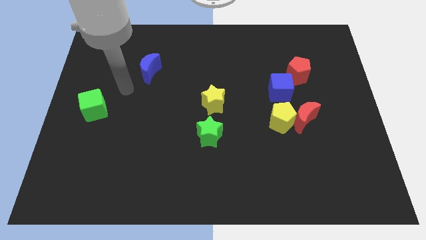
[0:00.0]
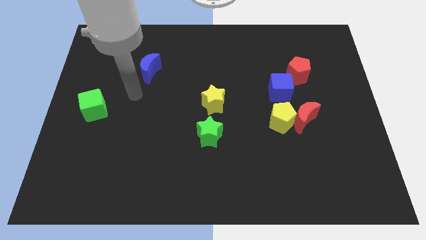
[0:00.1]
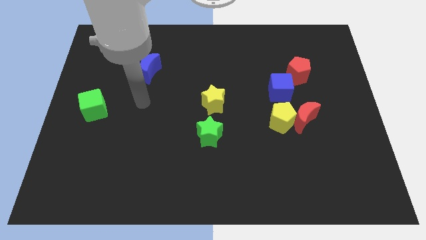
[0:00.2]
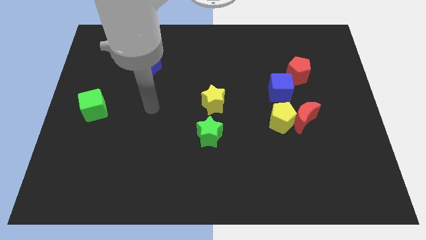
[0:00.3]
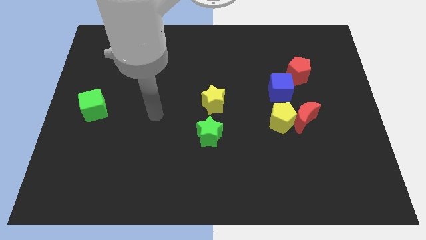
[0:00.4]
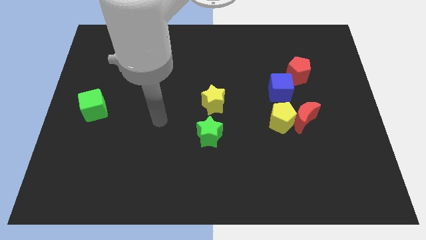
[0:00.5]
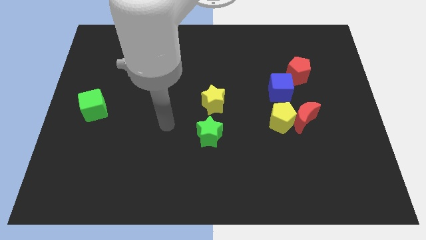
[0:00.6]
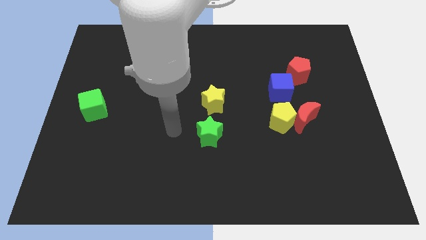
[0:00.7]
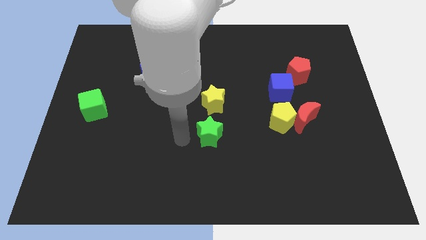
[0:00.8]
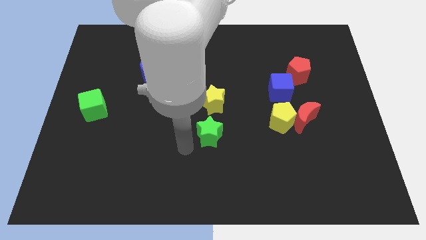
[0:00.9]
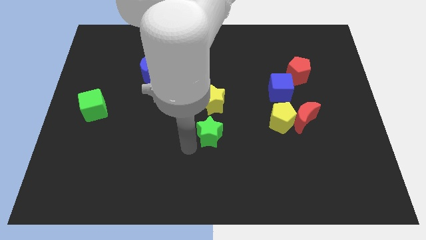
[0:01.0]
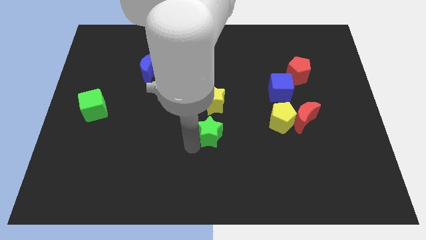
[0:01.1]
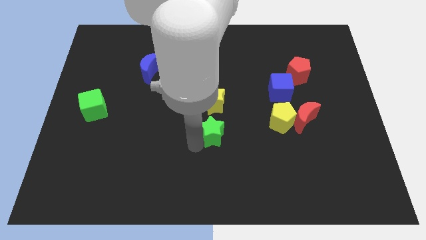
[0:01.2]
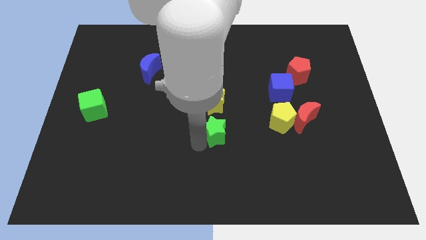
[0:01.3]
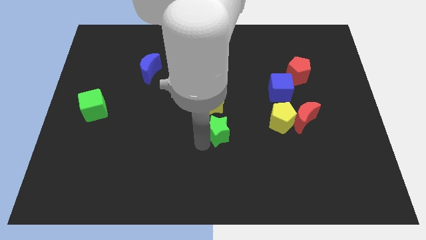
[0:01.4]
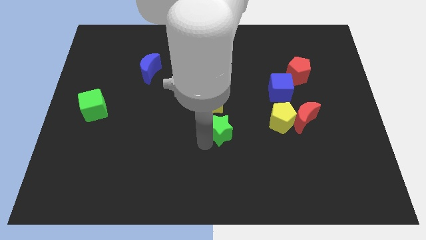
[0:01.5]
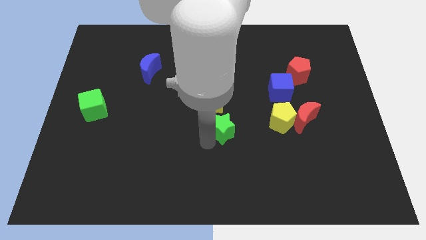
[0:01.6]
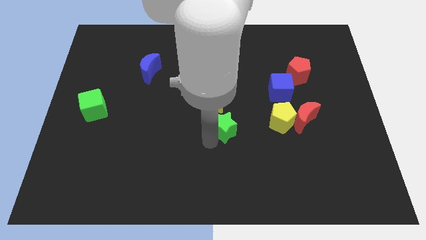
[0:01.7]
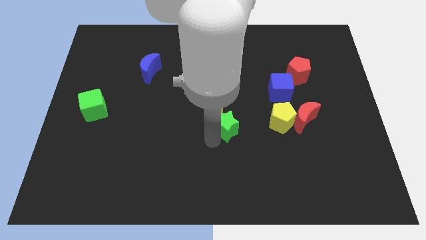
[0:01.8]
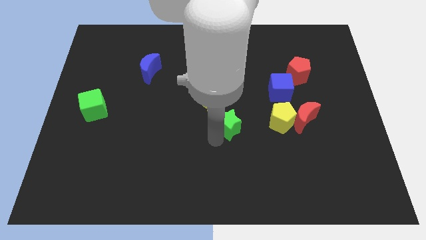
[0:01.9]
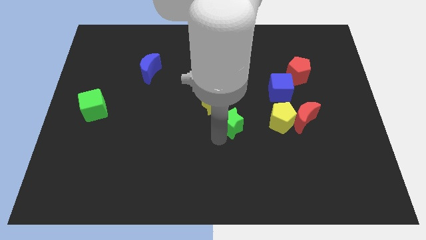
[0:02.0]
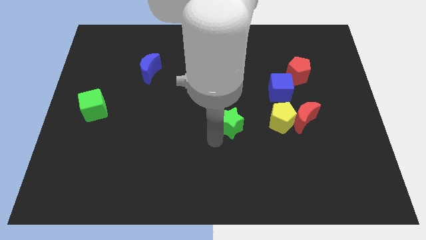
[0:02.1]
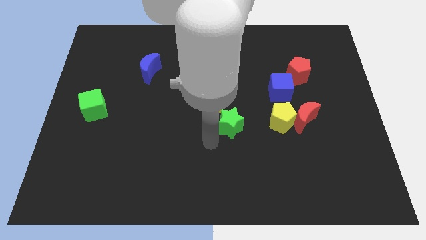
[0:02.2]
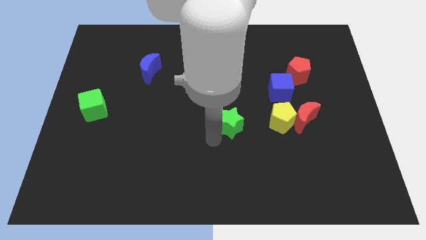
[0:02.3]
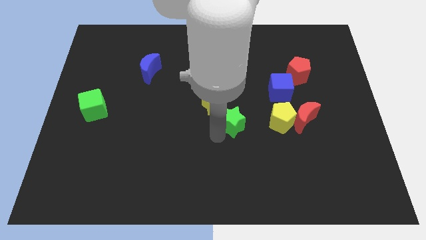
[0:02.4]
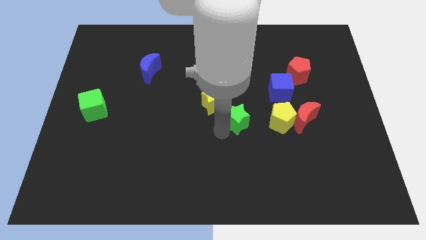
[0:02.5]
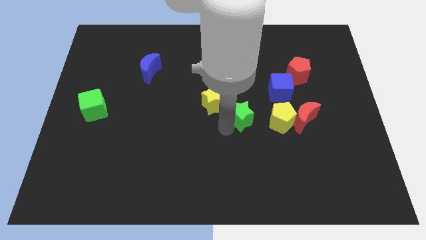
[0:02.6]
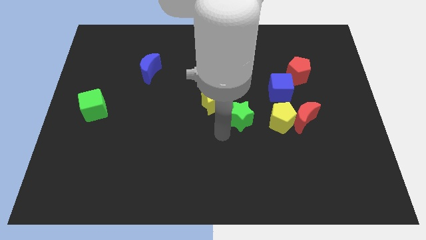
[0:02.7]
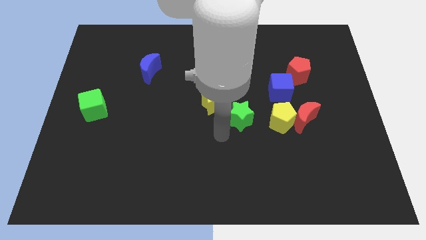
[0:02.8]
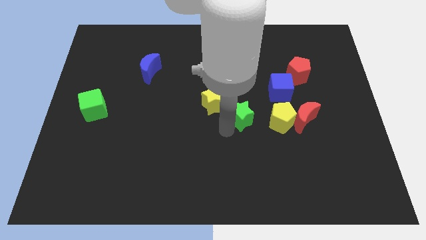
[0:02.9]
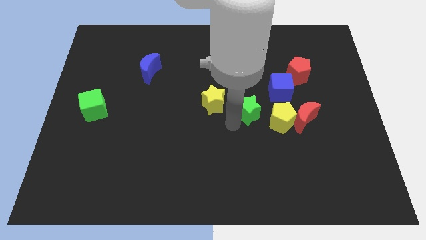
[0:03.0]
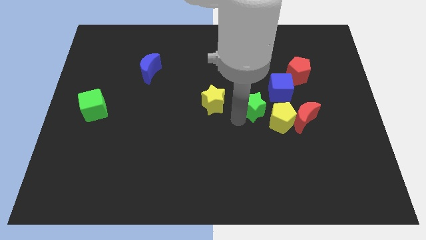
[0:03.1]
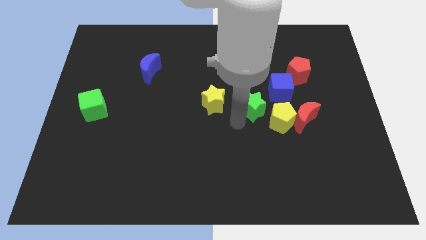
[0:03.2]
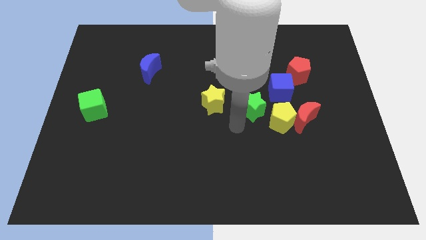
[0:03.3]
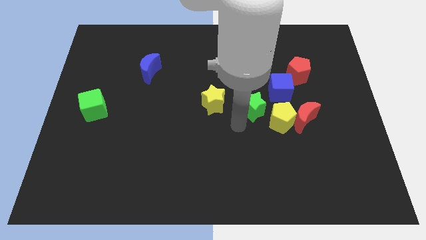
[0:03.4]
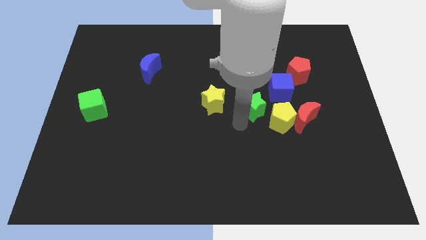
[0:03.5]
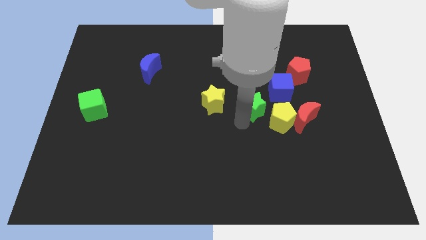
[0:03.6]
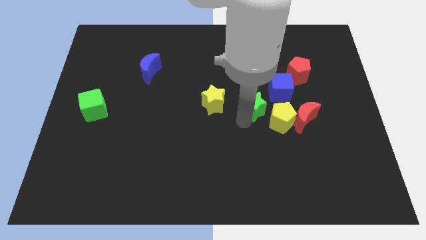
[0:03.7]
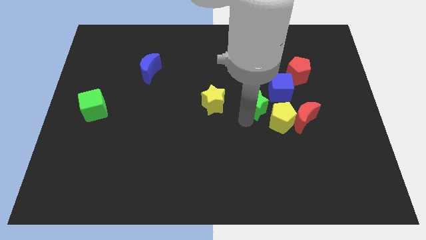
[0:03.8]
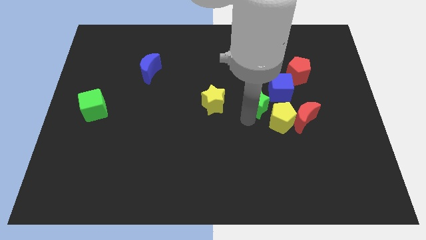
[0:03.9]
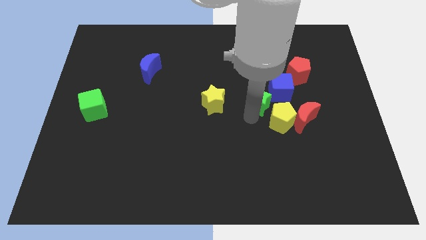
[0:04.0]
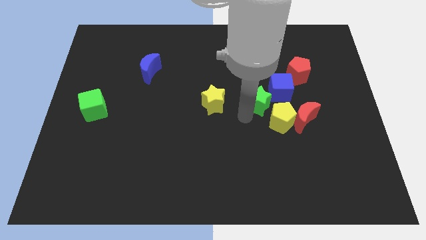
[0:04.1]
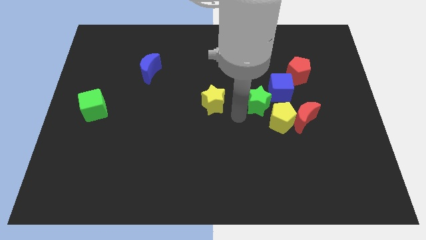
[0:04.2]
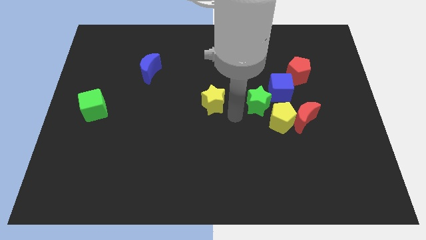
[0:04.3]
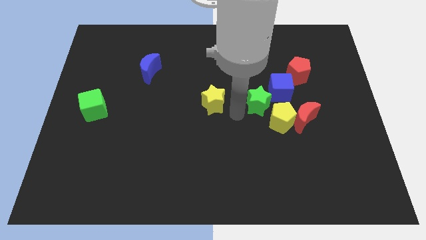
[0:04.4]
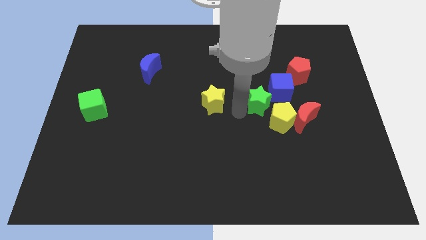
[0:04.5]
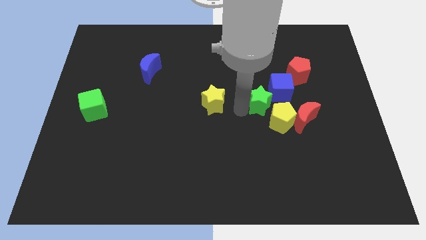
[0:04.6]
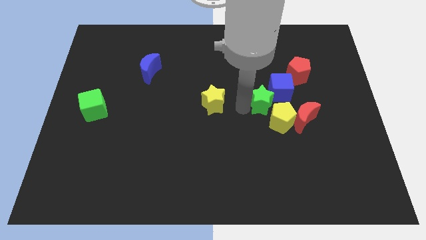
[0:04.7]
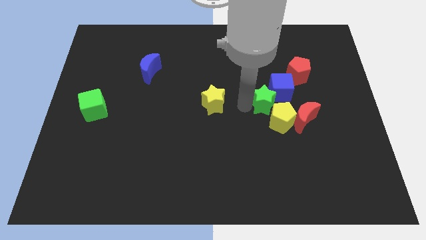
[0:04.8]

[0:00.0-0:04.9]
move the green star close to the blue cube

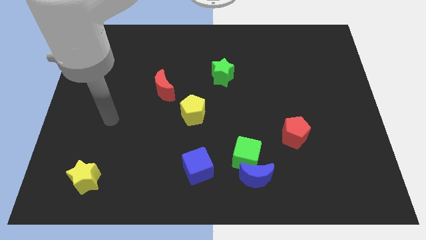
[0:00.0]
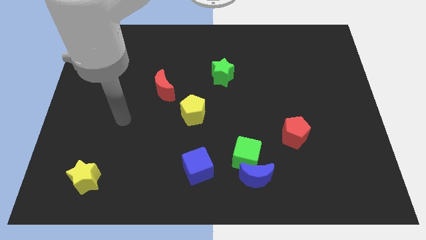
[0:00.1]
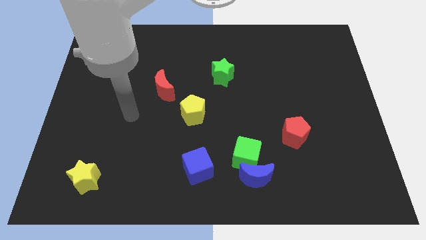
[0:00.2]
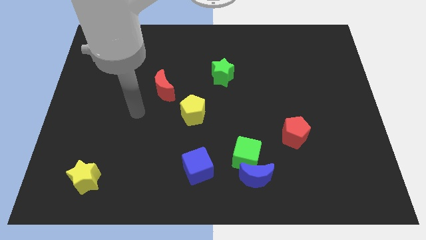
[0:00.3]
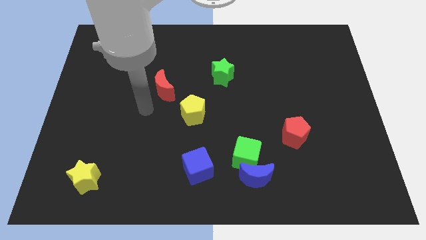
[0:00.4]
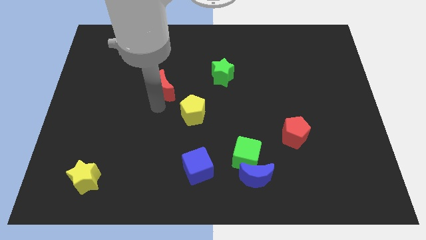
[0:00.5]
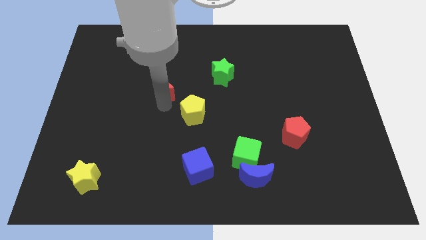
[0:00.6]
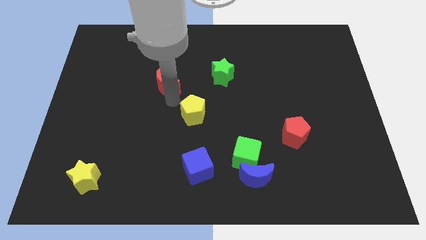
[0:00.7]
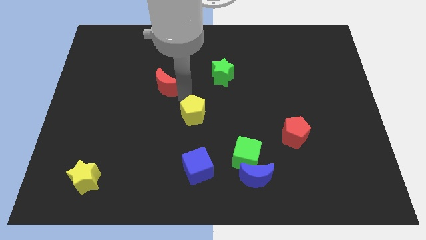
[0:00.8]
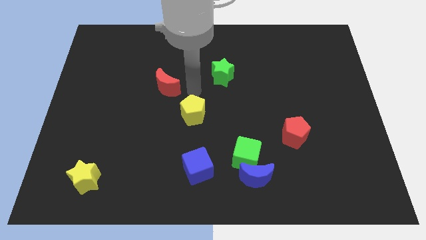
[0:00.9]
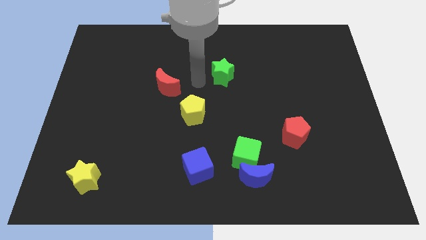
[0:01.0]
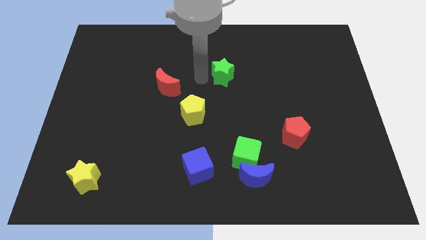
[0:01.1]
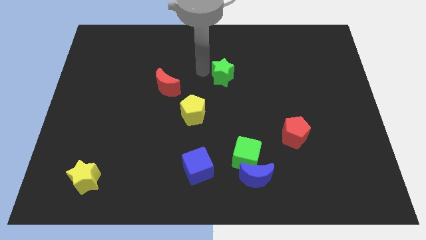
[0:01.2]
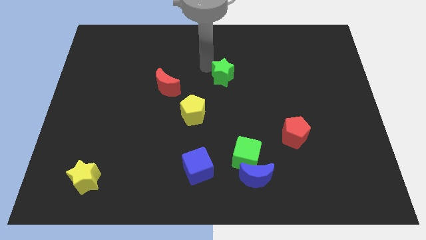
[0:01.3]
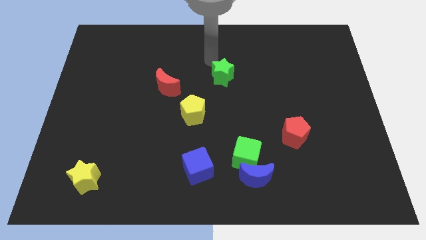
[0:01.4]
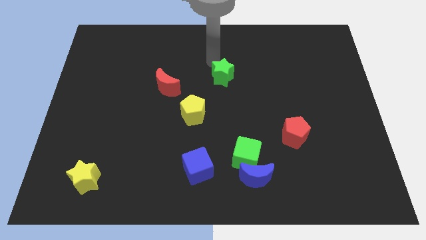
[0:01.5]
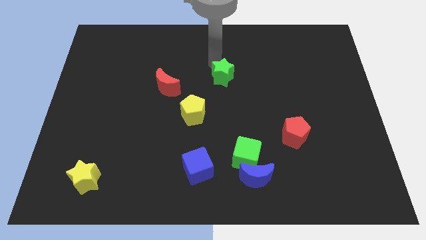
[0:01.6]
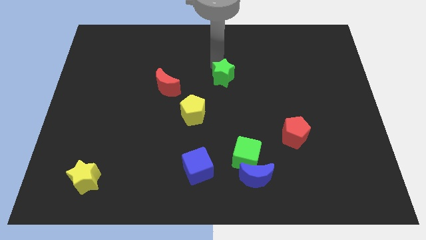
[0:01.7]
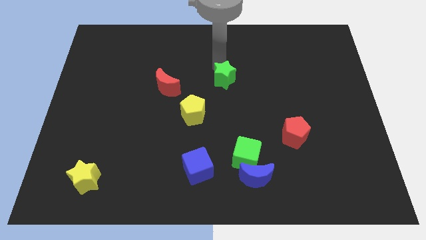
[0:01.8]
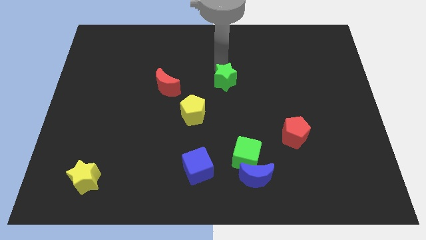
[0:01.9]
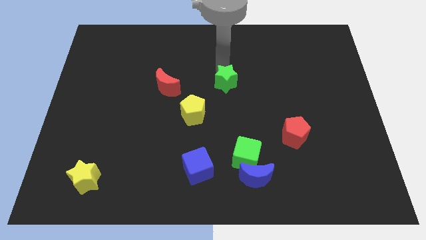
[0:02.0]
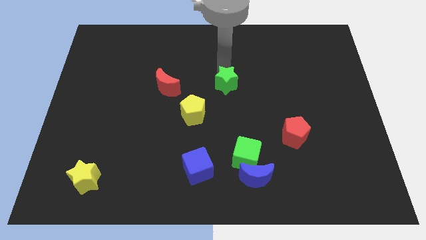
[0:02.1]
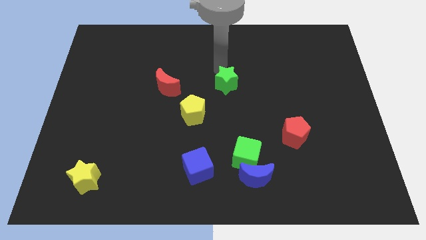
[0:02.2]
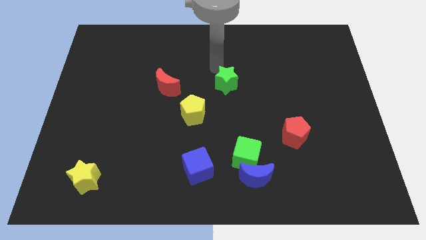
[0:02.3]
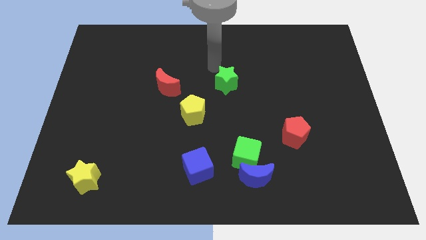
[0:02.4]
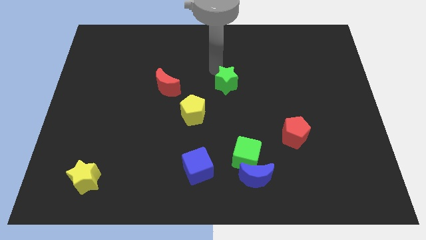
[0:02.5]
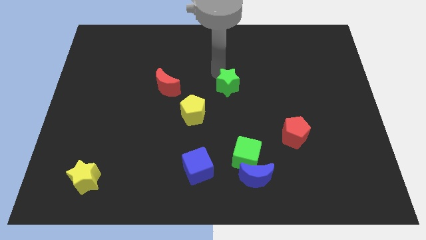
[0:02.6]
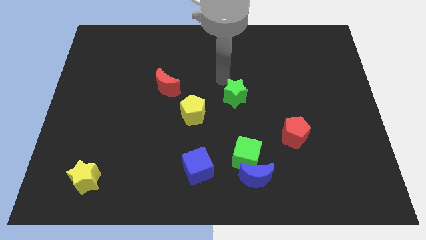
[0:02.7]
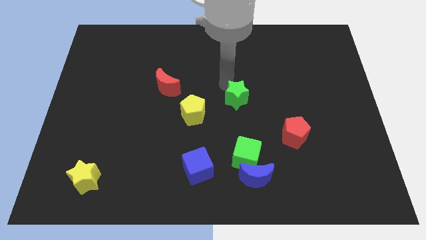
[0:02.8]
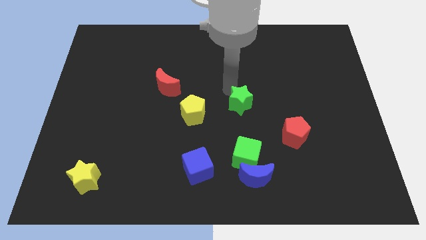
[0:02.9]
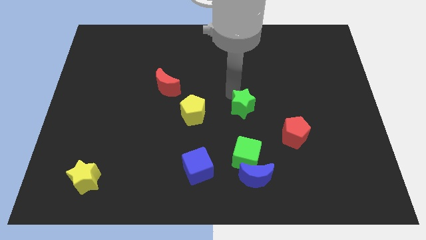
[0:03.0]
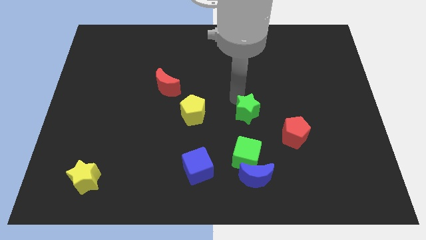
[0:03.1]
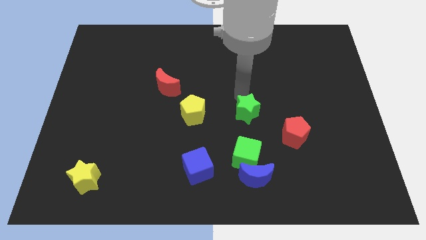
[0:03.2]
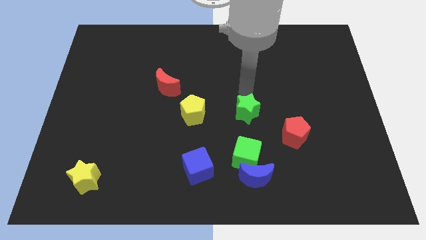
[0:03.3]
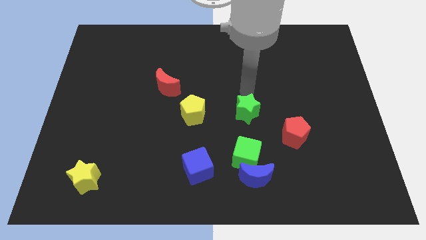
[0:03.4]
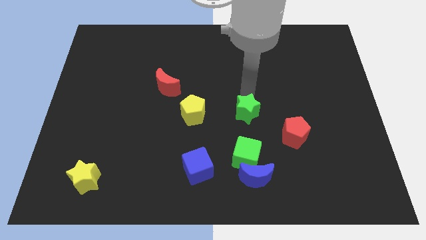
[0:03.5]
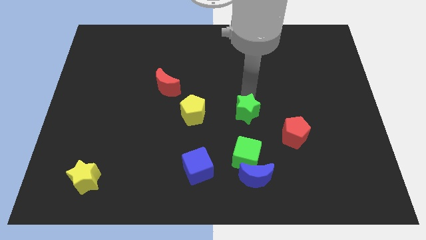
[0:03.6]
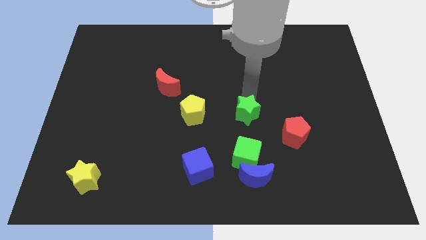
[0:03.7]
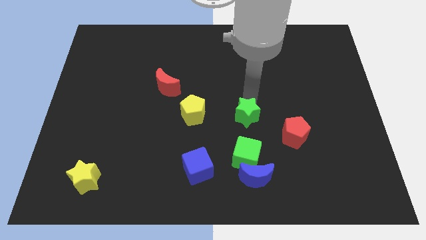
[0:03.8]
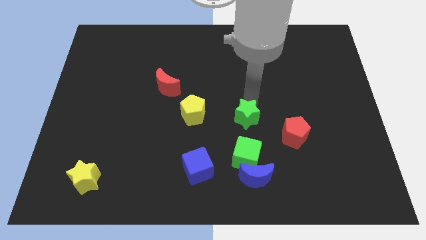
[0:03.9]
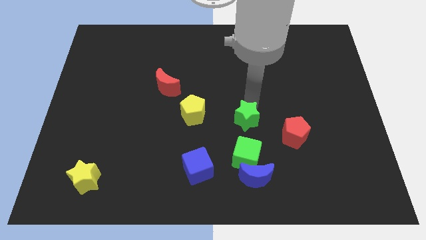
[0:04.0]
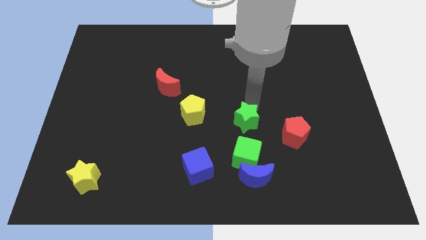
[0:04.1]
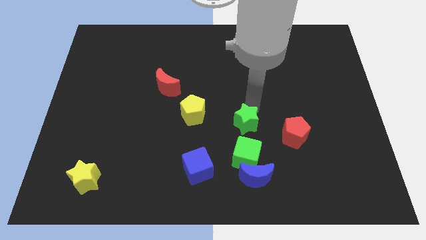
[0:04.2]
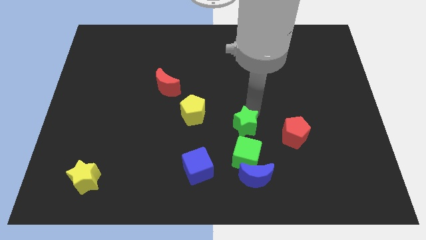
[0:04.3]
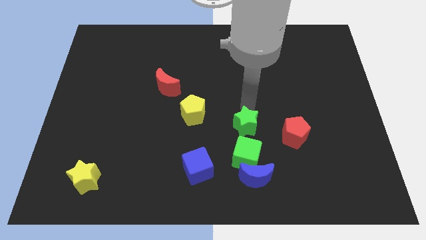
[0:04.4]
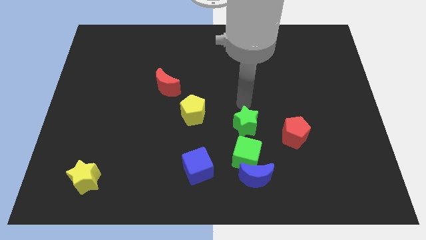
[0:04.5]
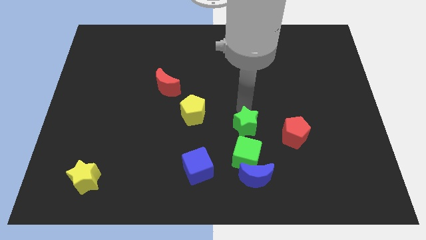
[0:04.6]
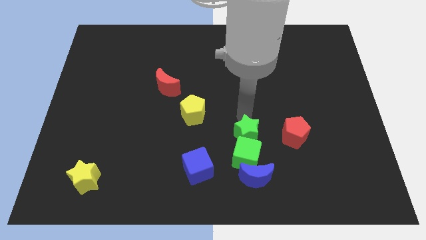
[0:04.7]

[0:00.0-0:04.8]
push the green star to the green cube
